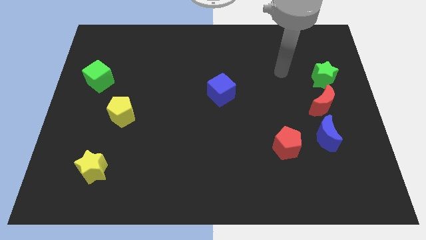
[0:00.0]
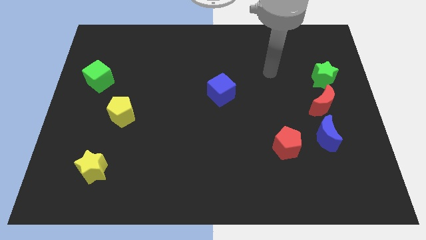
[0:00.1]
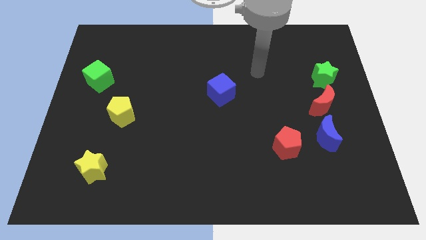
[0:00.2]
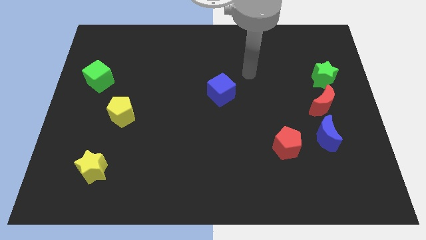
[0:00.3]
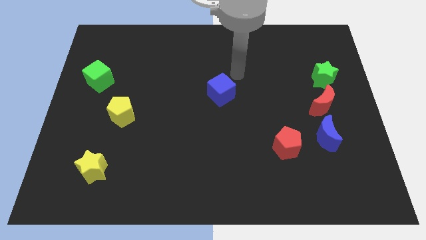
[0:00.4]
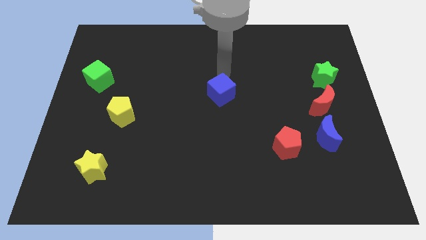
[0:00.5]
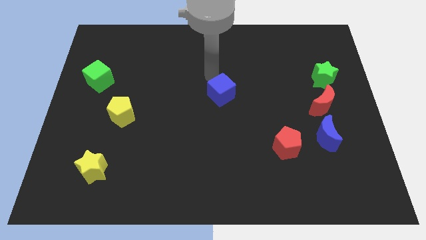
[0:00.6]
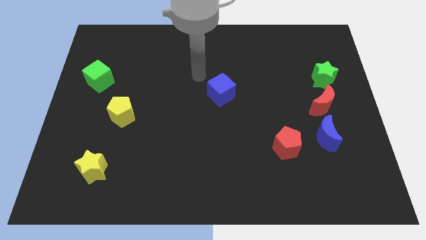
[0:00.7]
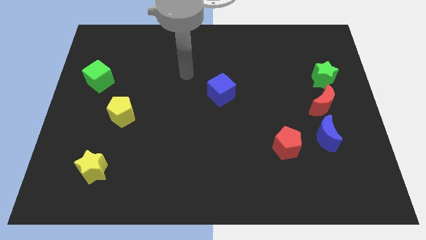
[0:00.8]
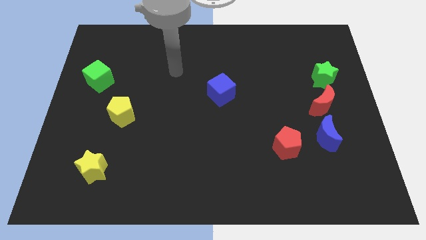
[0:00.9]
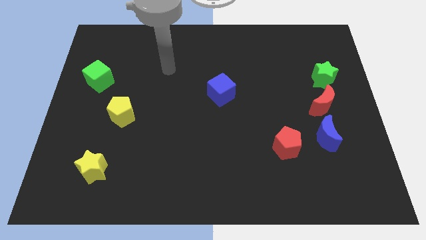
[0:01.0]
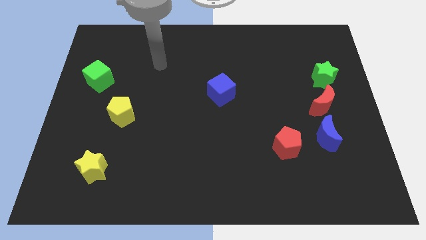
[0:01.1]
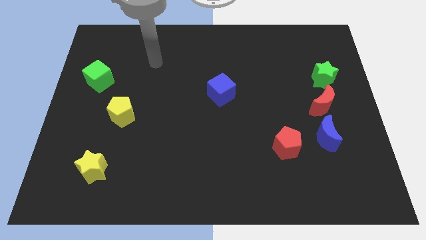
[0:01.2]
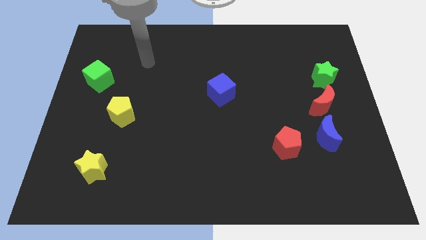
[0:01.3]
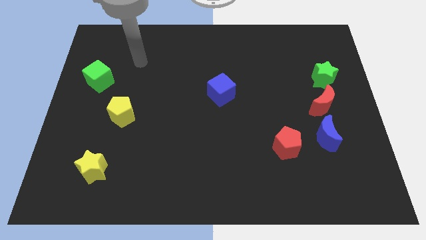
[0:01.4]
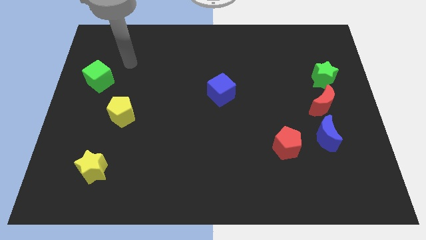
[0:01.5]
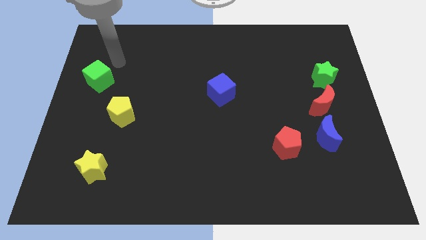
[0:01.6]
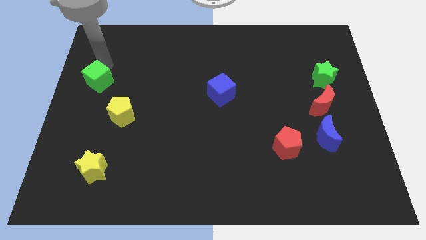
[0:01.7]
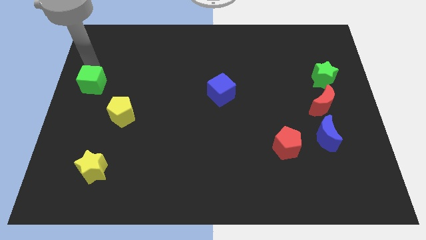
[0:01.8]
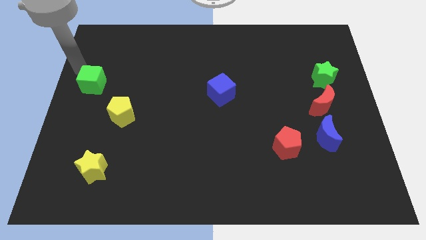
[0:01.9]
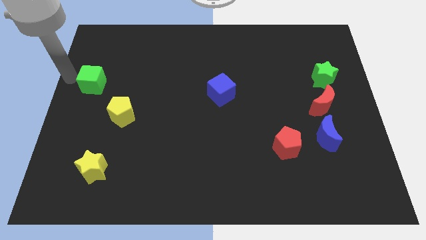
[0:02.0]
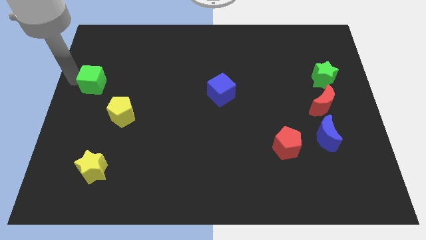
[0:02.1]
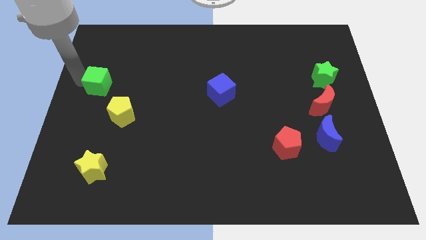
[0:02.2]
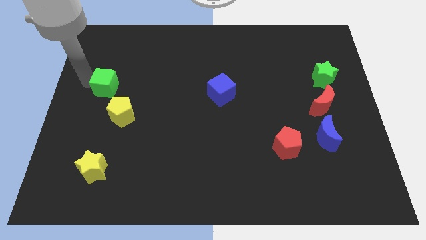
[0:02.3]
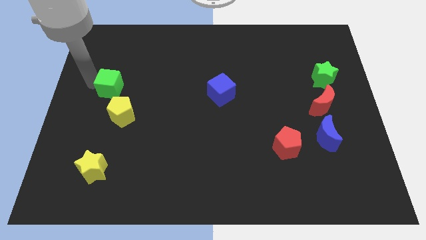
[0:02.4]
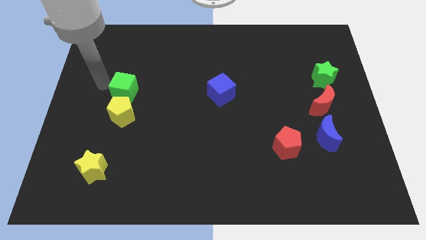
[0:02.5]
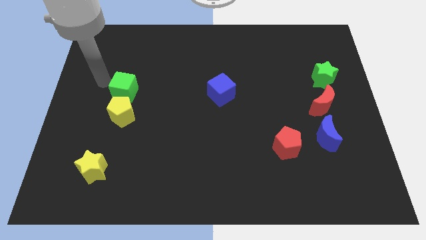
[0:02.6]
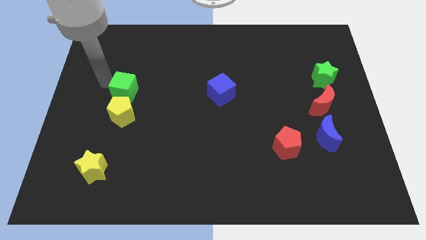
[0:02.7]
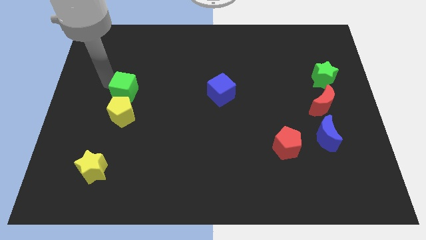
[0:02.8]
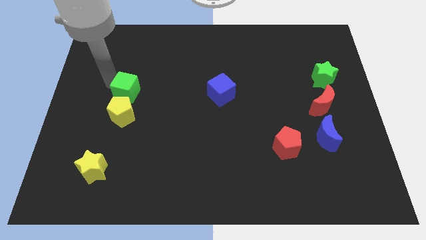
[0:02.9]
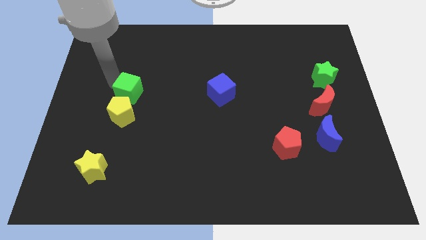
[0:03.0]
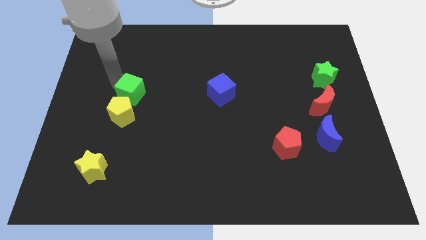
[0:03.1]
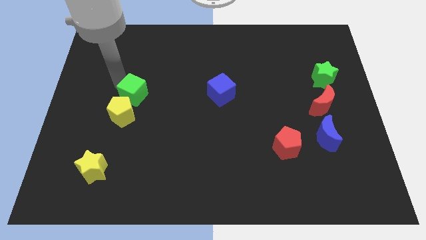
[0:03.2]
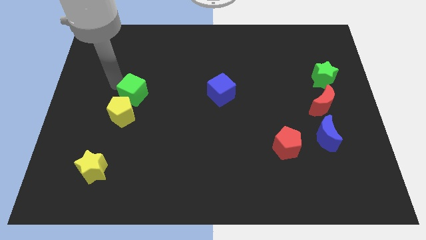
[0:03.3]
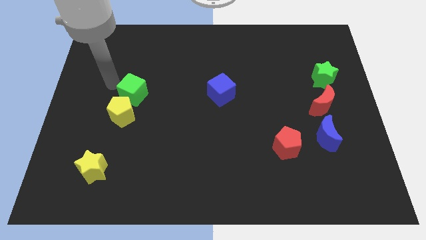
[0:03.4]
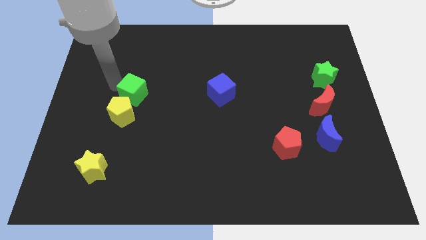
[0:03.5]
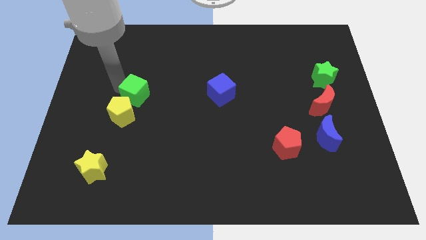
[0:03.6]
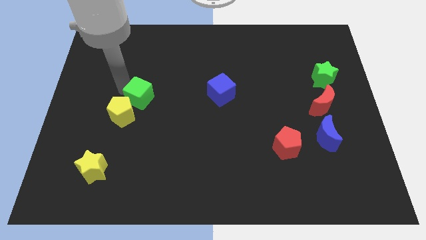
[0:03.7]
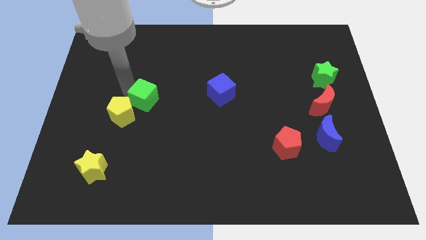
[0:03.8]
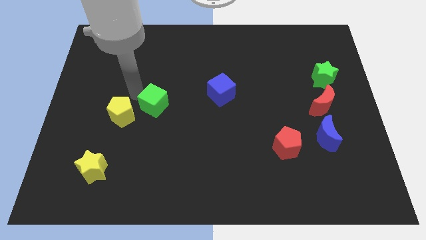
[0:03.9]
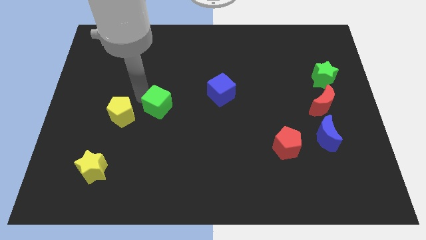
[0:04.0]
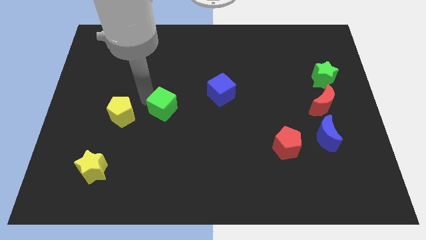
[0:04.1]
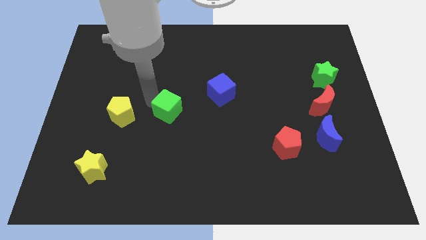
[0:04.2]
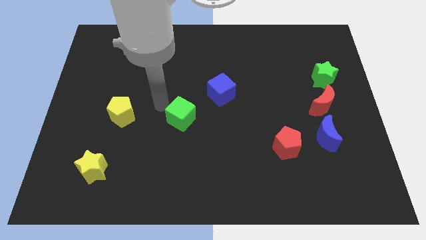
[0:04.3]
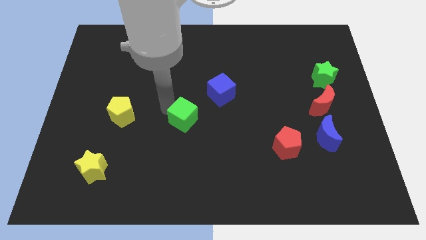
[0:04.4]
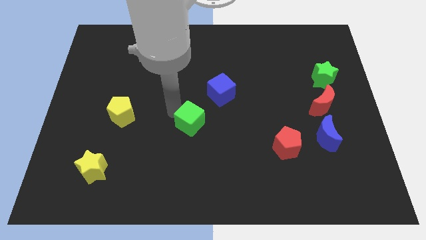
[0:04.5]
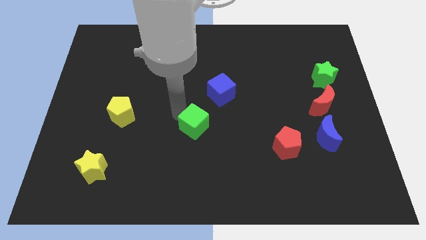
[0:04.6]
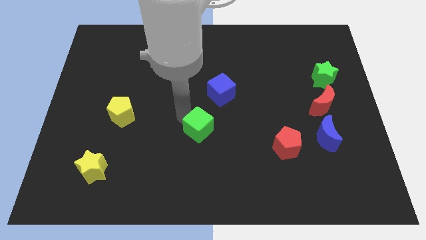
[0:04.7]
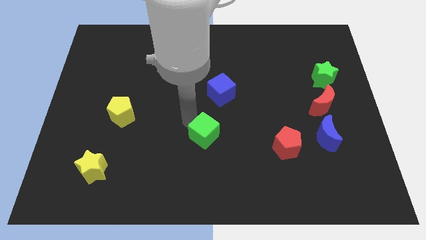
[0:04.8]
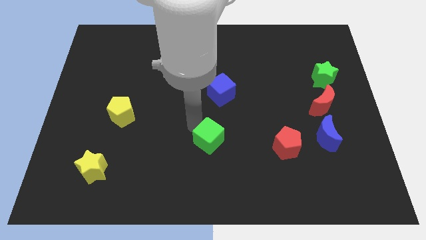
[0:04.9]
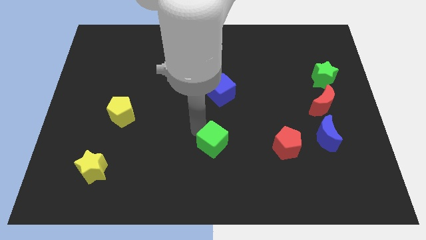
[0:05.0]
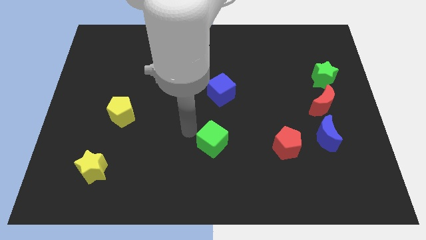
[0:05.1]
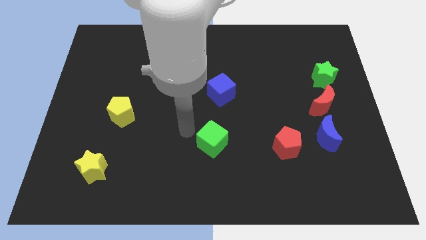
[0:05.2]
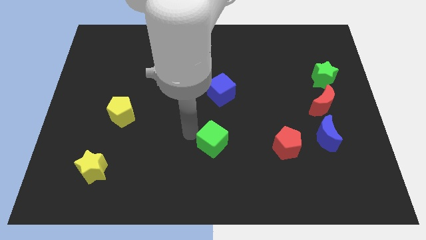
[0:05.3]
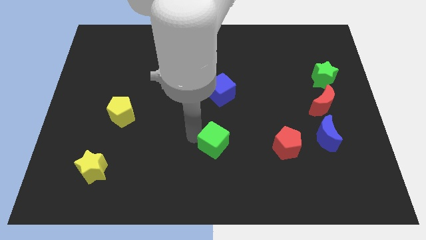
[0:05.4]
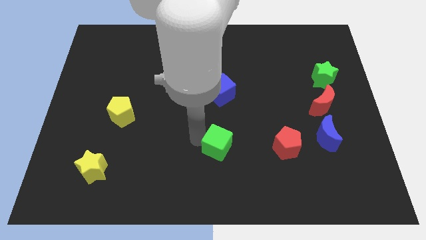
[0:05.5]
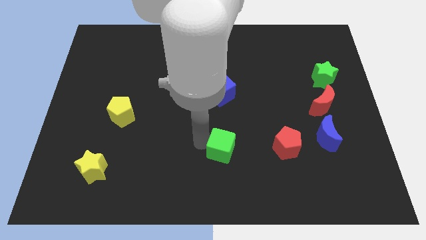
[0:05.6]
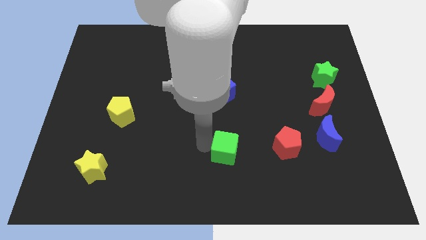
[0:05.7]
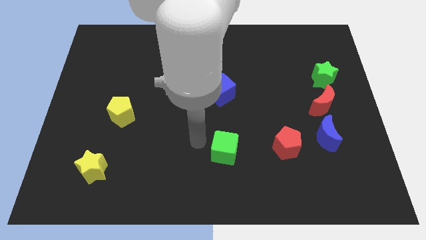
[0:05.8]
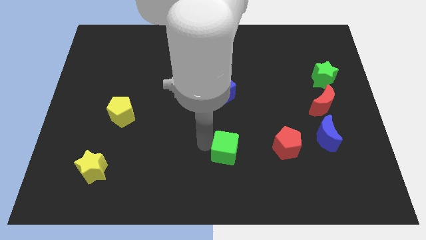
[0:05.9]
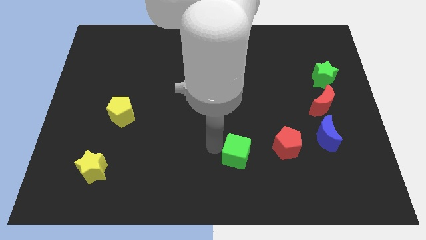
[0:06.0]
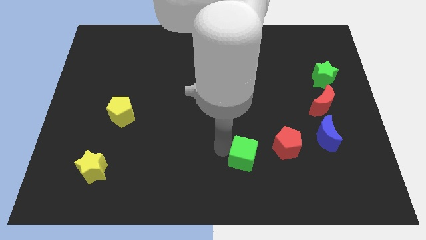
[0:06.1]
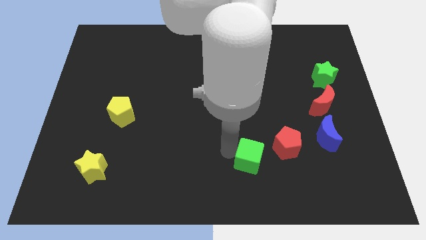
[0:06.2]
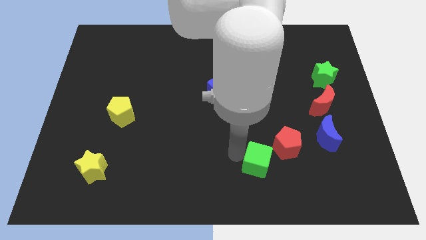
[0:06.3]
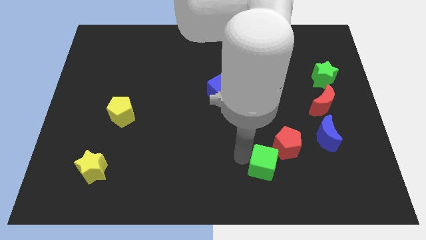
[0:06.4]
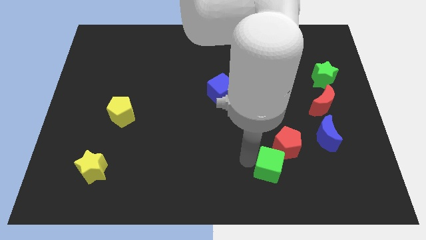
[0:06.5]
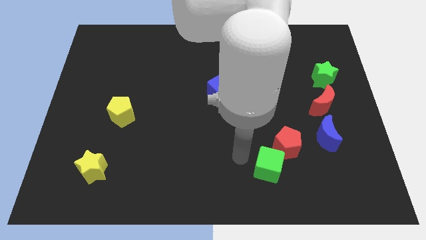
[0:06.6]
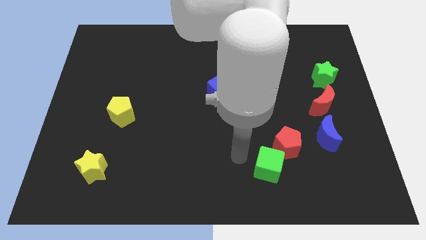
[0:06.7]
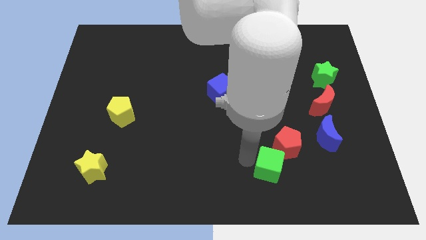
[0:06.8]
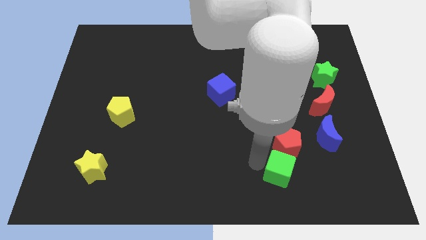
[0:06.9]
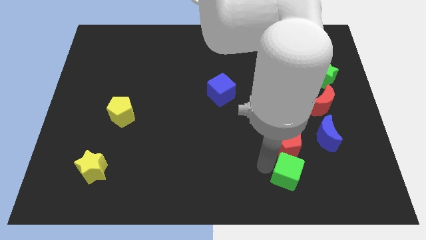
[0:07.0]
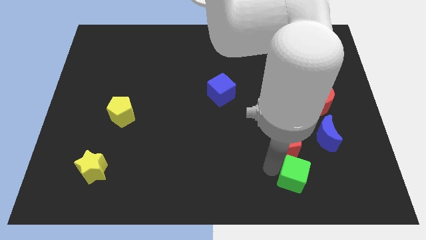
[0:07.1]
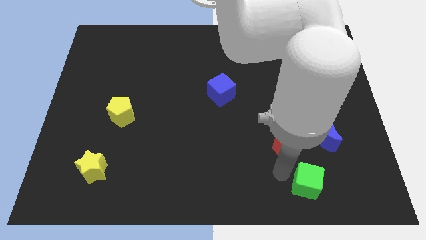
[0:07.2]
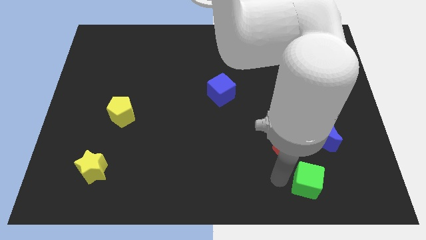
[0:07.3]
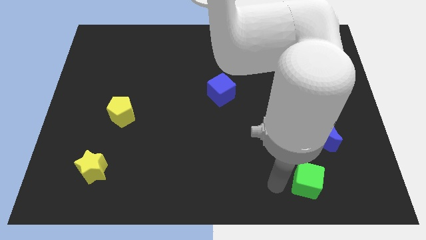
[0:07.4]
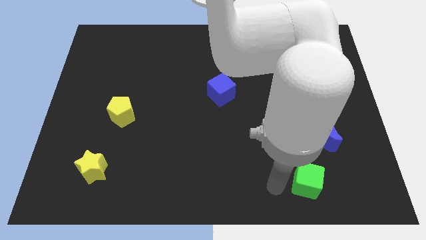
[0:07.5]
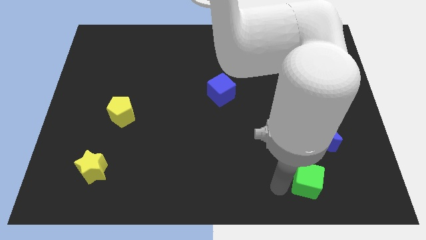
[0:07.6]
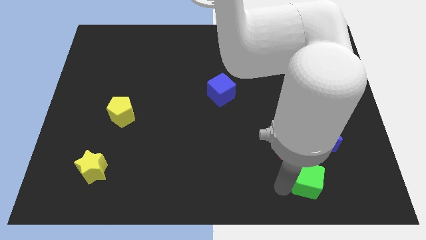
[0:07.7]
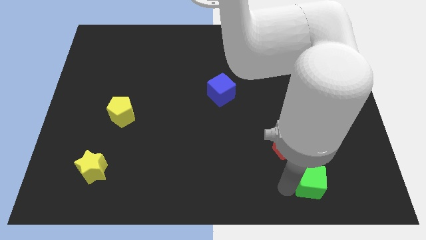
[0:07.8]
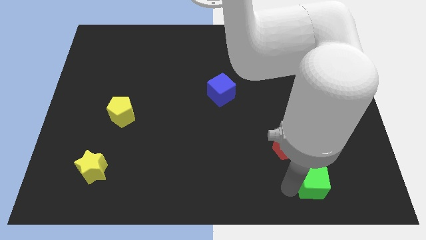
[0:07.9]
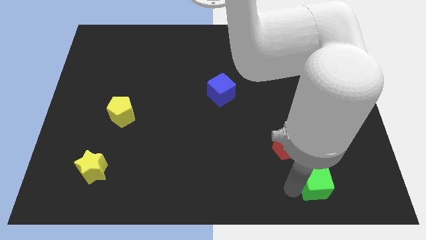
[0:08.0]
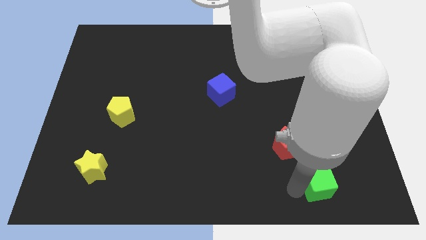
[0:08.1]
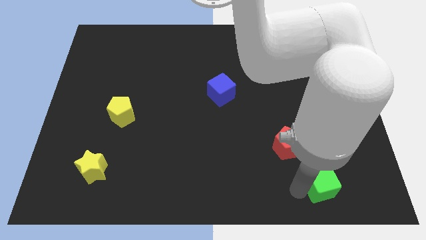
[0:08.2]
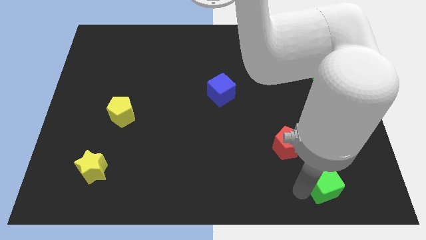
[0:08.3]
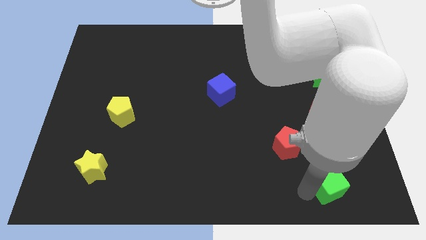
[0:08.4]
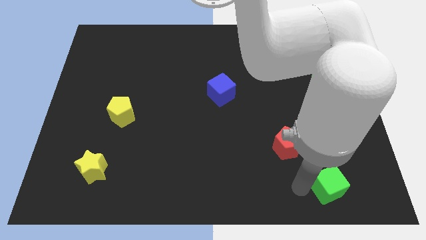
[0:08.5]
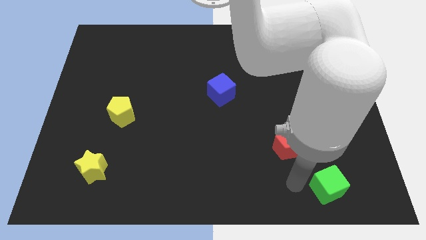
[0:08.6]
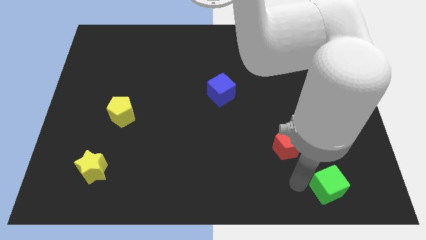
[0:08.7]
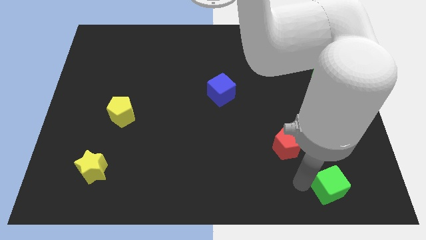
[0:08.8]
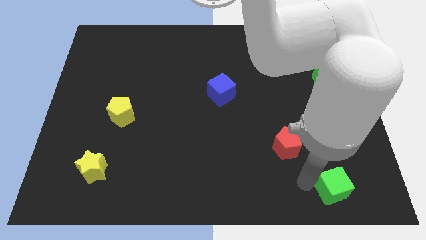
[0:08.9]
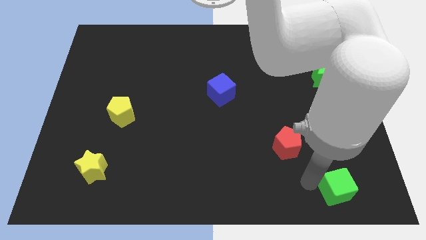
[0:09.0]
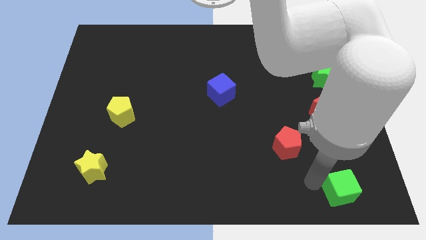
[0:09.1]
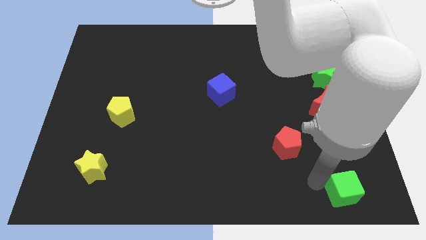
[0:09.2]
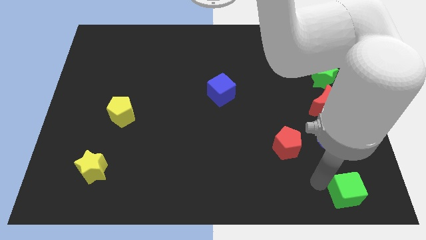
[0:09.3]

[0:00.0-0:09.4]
slide the green cube to the bottom right
